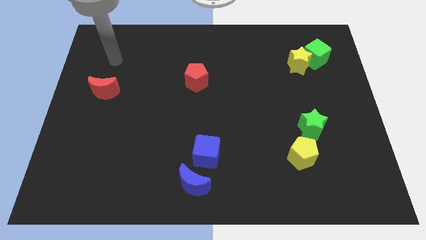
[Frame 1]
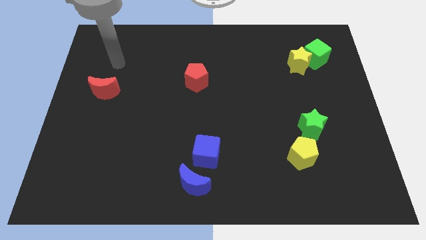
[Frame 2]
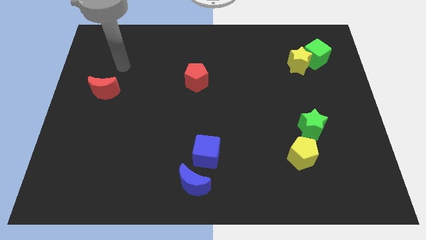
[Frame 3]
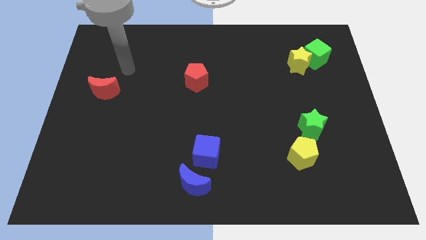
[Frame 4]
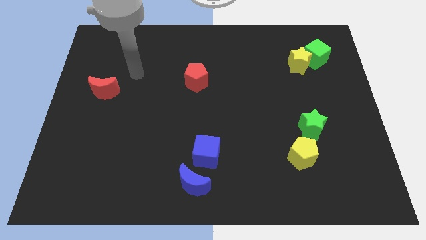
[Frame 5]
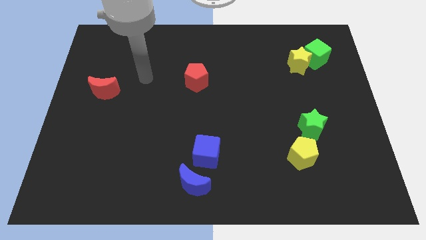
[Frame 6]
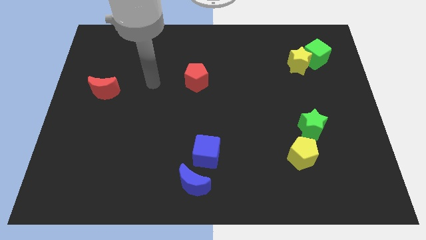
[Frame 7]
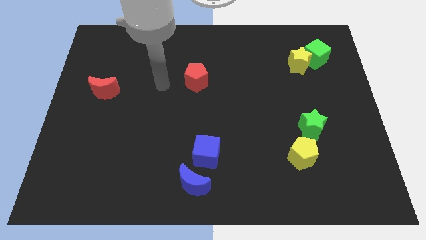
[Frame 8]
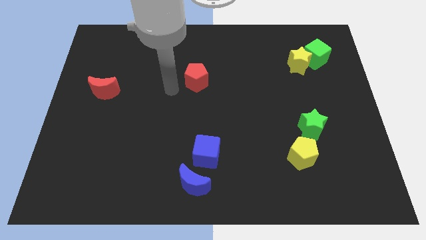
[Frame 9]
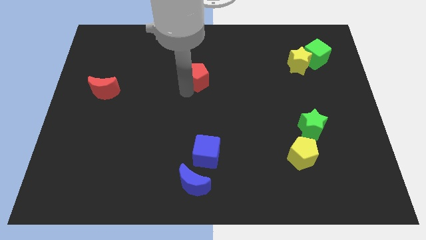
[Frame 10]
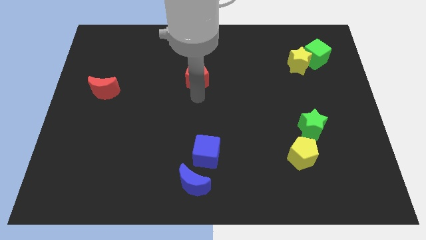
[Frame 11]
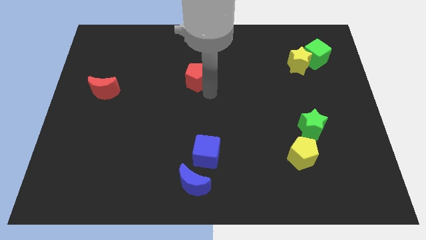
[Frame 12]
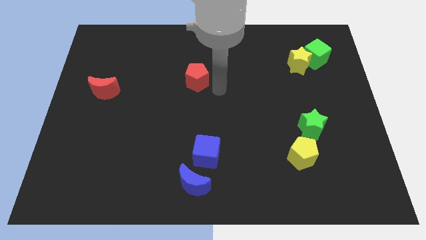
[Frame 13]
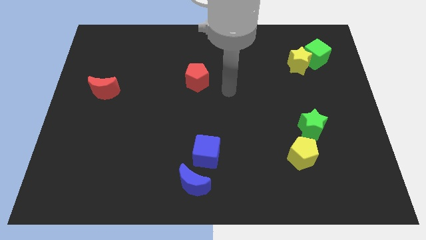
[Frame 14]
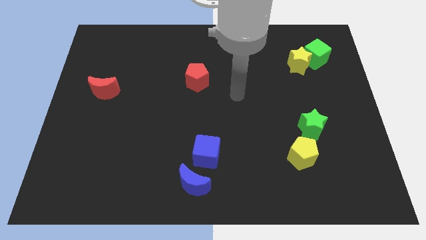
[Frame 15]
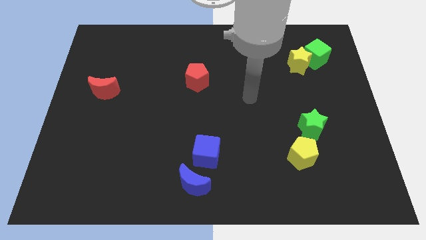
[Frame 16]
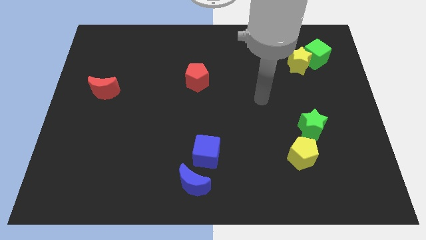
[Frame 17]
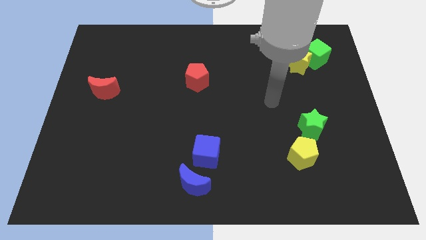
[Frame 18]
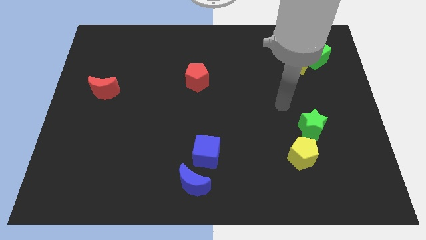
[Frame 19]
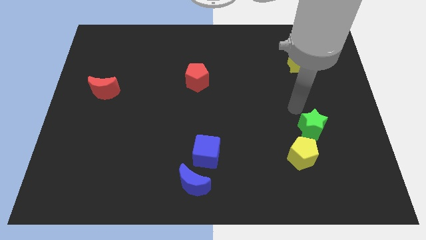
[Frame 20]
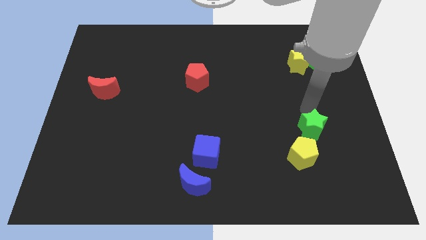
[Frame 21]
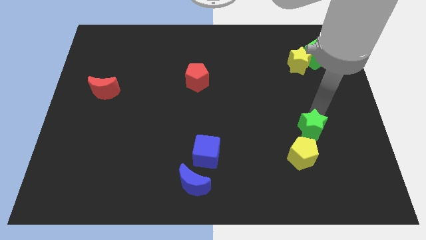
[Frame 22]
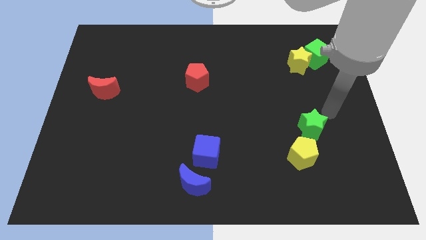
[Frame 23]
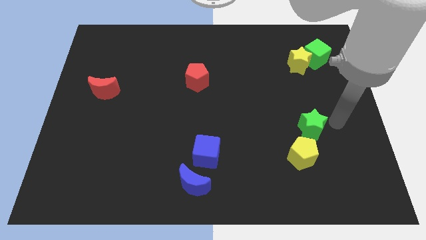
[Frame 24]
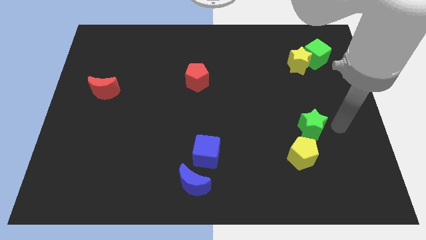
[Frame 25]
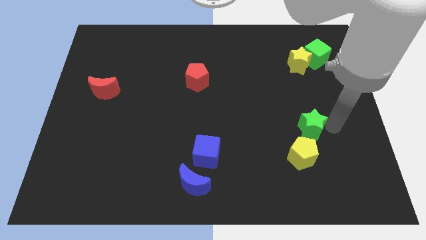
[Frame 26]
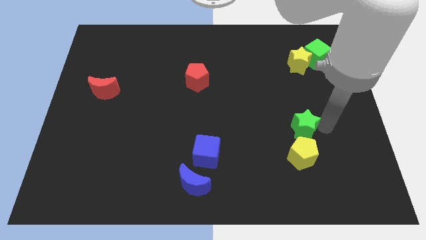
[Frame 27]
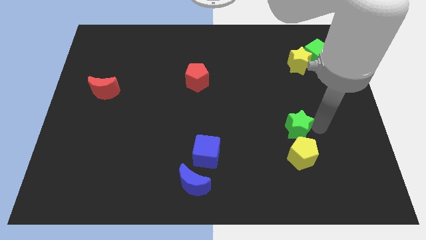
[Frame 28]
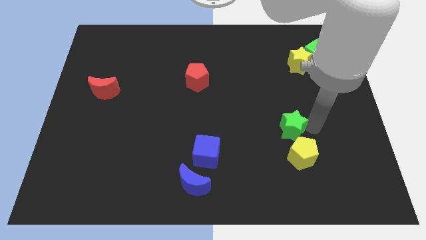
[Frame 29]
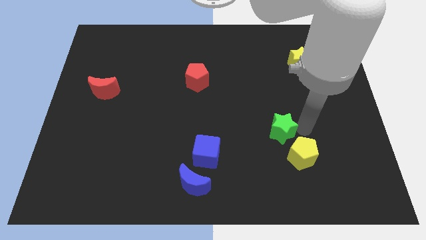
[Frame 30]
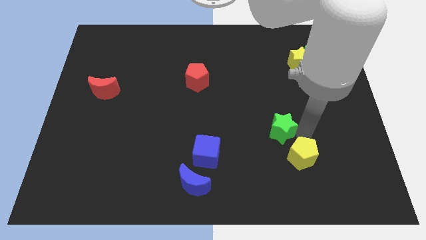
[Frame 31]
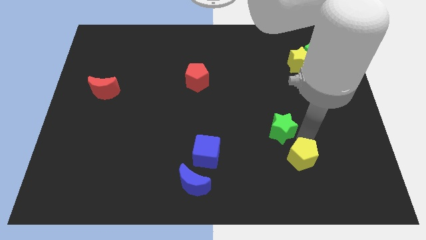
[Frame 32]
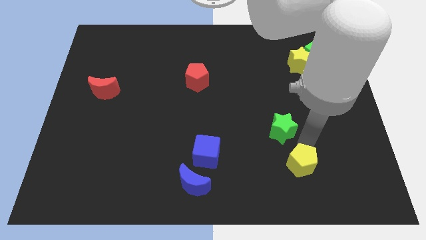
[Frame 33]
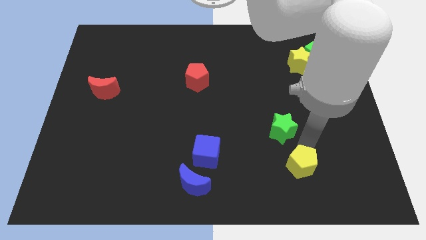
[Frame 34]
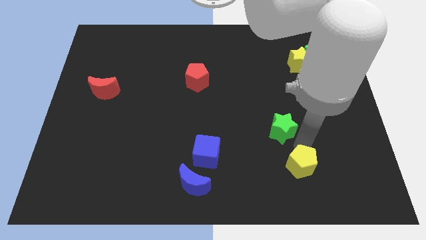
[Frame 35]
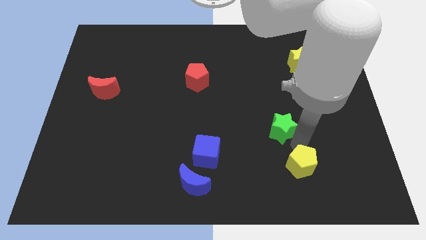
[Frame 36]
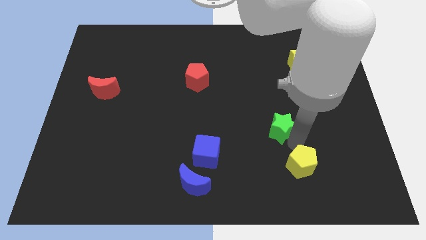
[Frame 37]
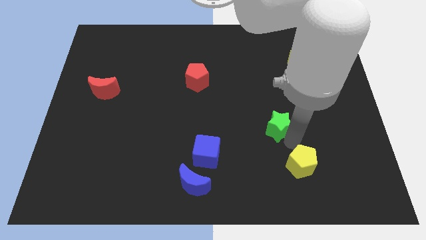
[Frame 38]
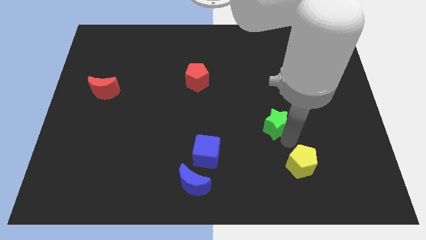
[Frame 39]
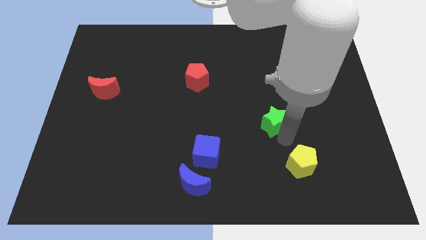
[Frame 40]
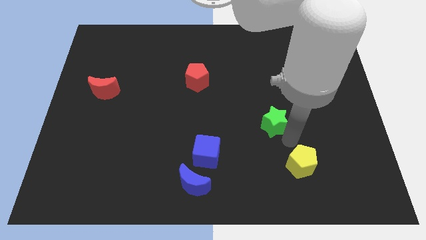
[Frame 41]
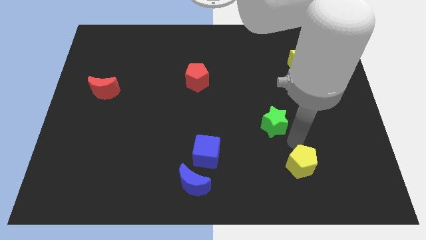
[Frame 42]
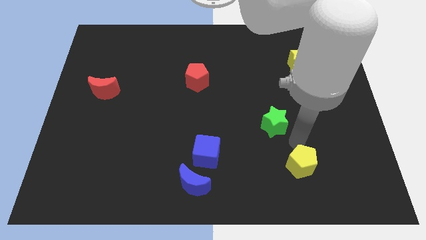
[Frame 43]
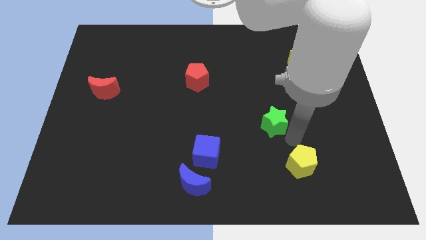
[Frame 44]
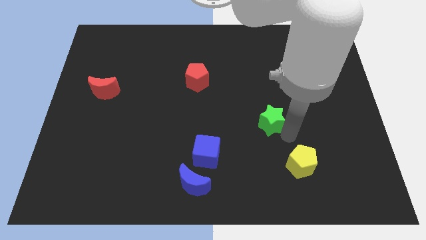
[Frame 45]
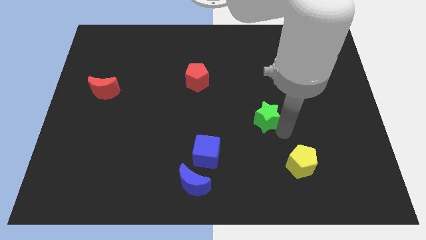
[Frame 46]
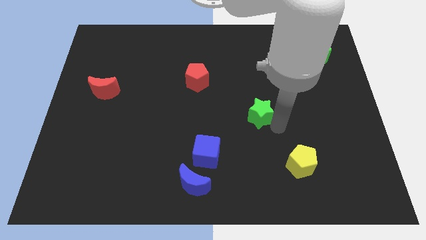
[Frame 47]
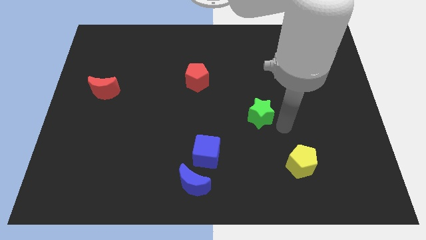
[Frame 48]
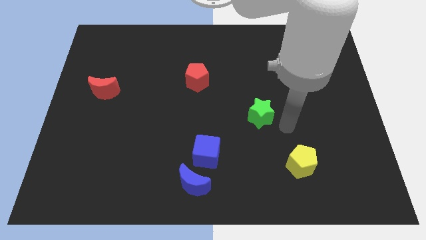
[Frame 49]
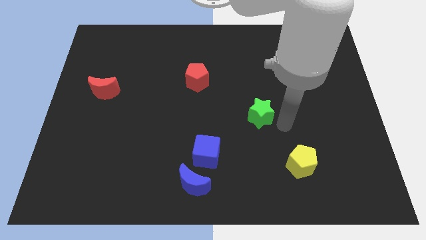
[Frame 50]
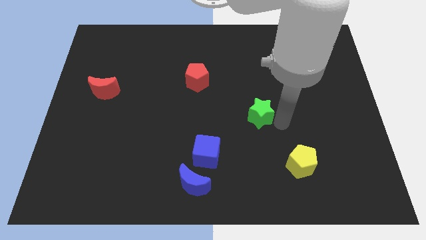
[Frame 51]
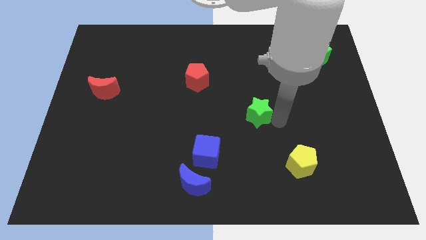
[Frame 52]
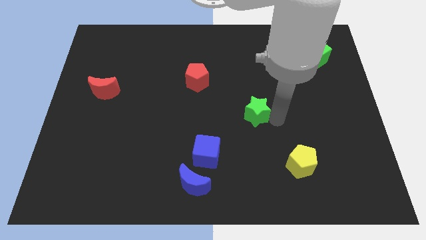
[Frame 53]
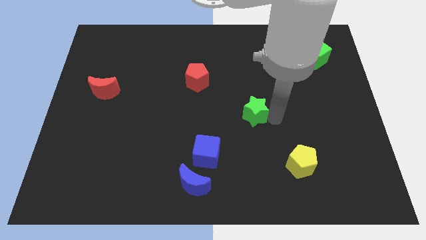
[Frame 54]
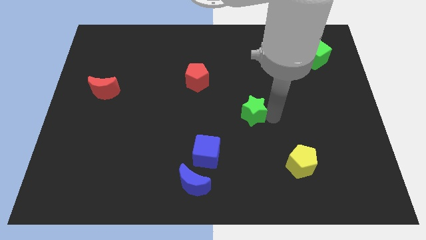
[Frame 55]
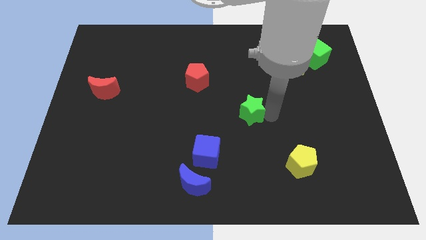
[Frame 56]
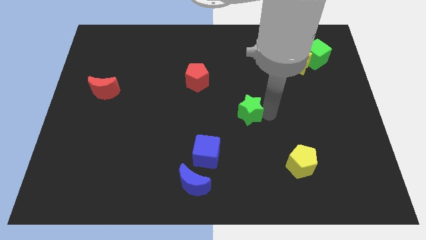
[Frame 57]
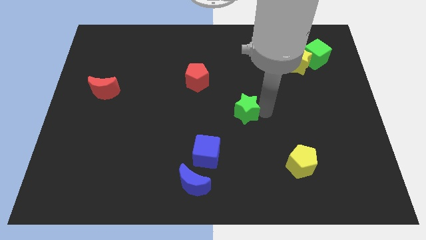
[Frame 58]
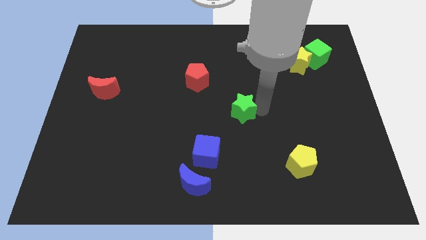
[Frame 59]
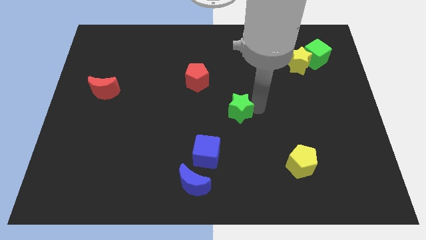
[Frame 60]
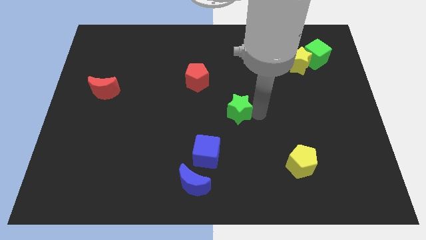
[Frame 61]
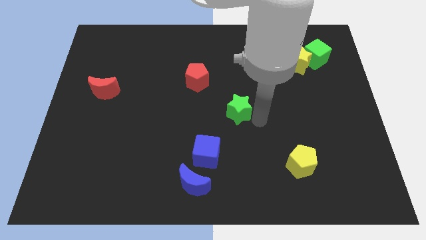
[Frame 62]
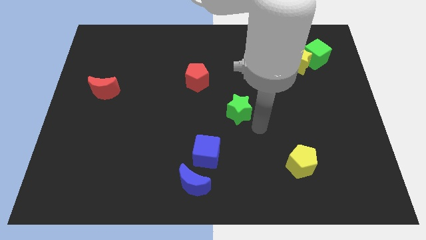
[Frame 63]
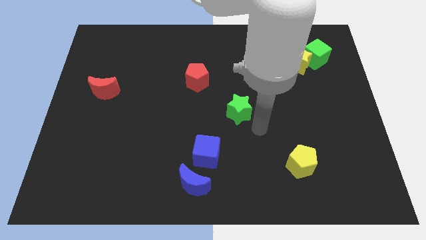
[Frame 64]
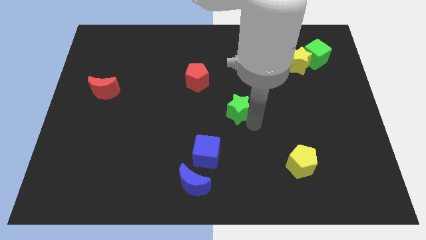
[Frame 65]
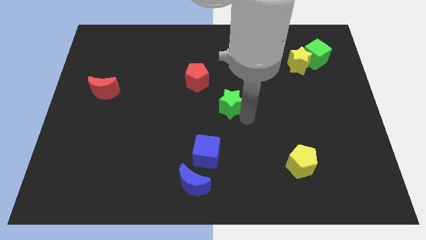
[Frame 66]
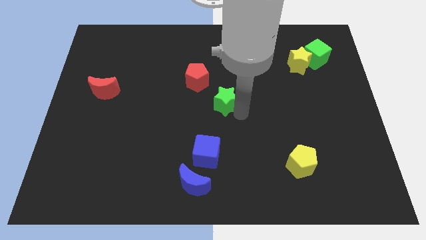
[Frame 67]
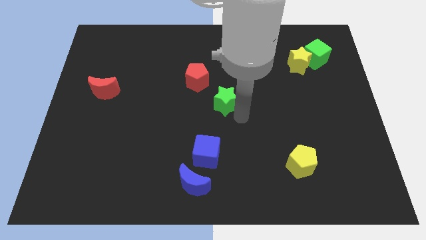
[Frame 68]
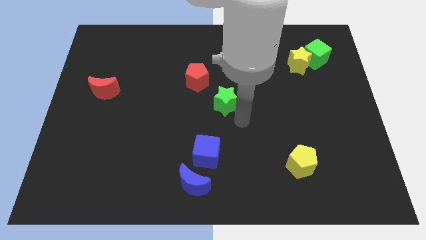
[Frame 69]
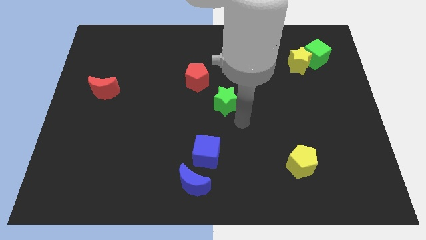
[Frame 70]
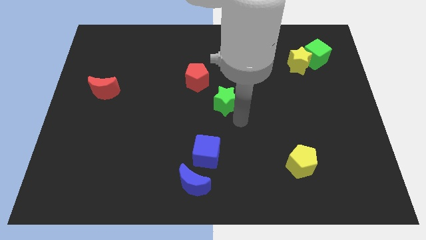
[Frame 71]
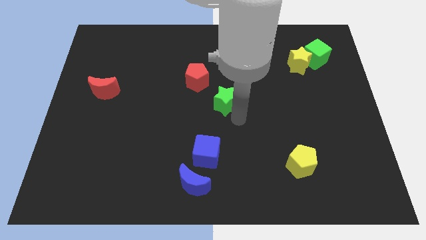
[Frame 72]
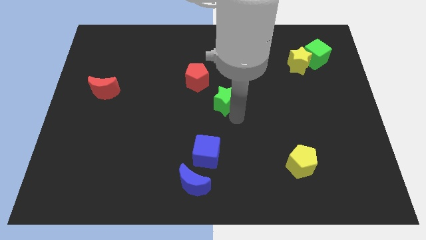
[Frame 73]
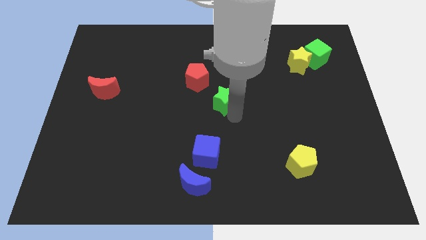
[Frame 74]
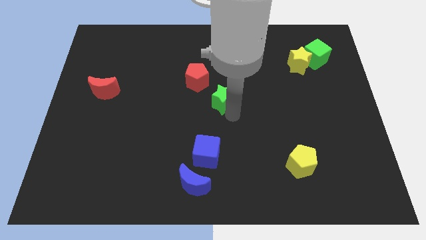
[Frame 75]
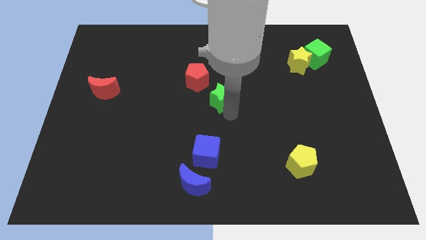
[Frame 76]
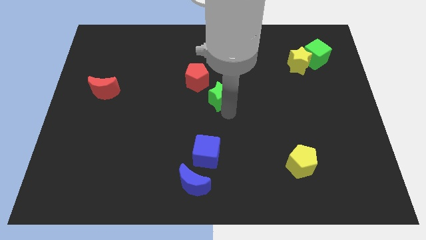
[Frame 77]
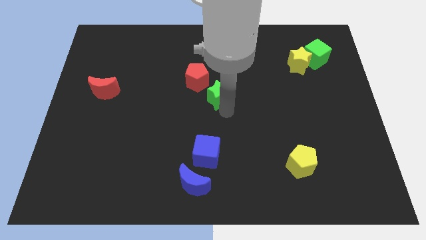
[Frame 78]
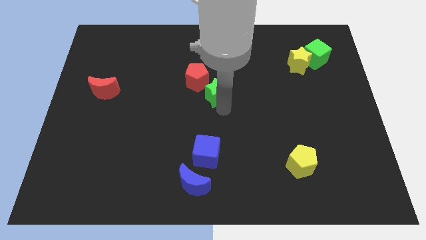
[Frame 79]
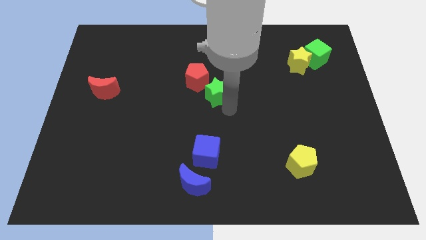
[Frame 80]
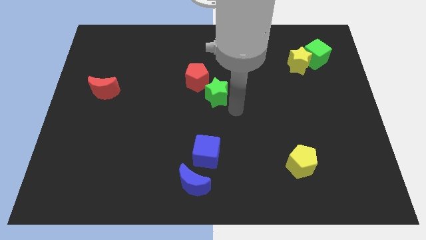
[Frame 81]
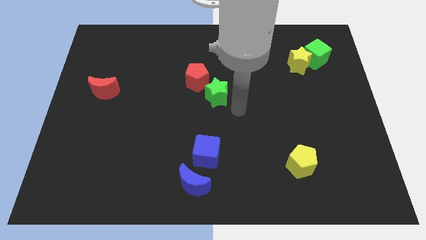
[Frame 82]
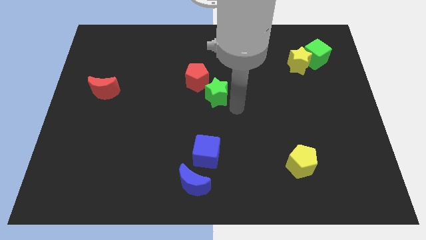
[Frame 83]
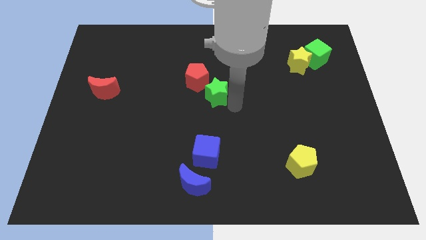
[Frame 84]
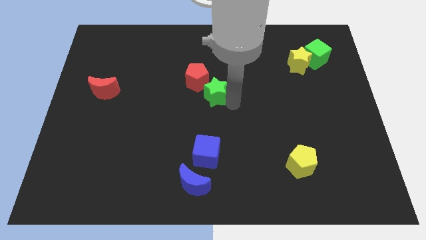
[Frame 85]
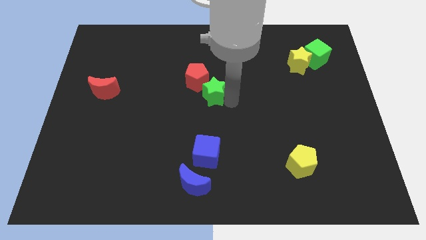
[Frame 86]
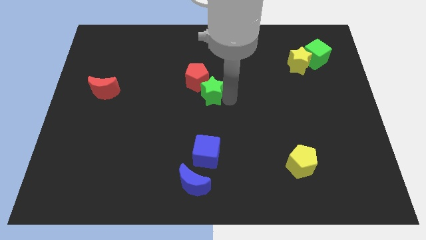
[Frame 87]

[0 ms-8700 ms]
slide the green star to the red pentagon
